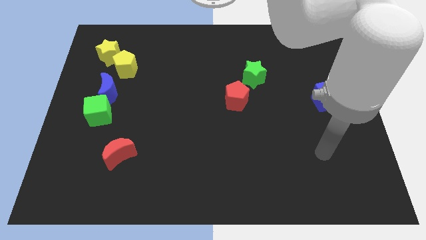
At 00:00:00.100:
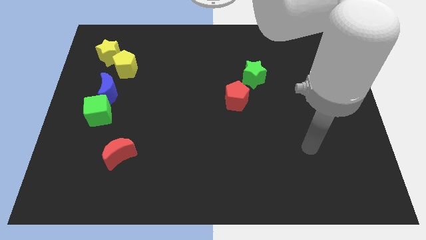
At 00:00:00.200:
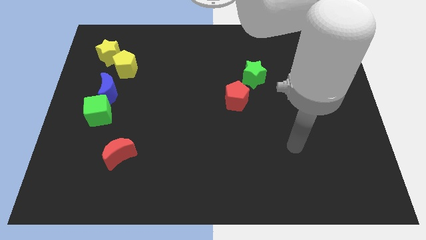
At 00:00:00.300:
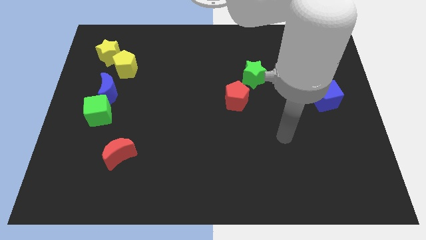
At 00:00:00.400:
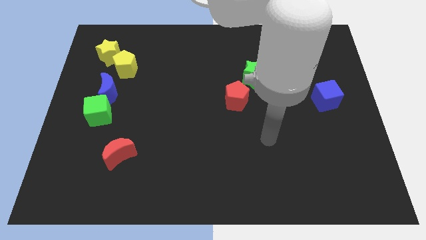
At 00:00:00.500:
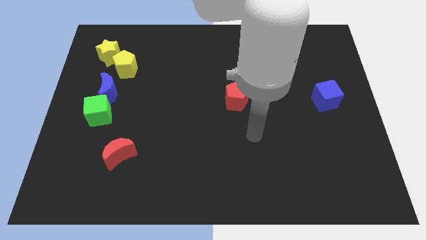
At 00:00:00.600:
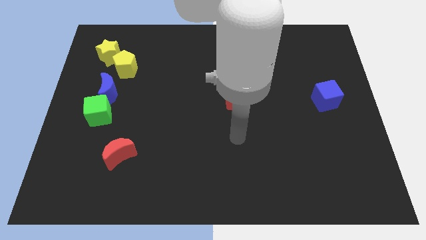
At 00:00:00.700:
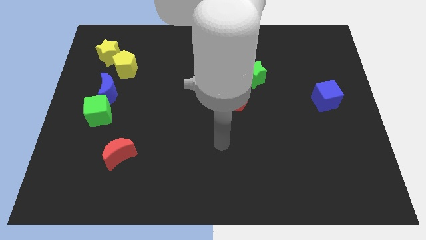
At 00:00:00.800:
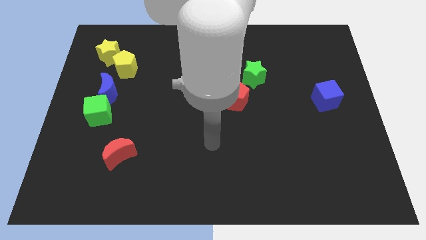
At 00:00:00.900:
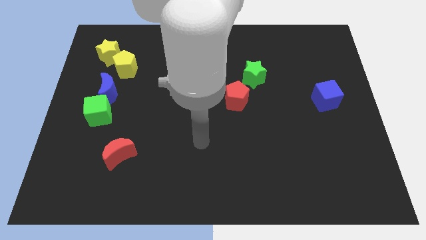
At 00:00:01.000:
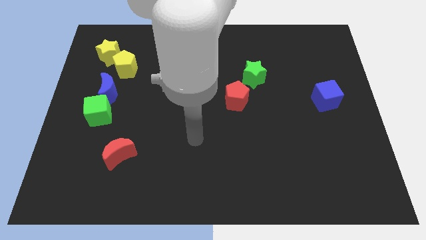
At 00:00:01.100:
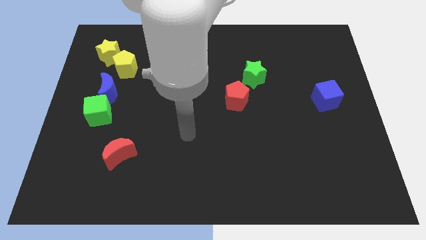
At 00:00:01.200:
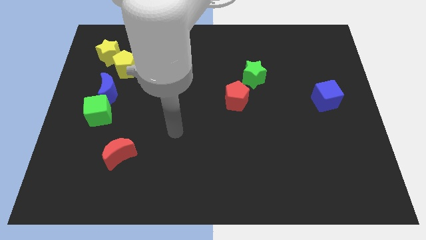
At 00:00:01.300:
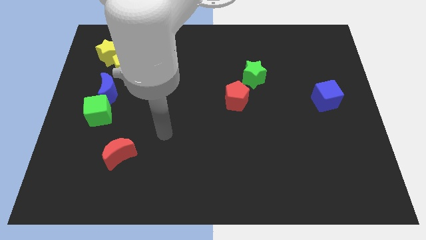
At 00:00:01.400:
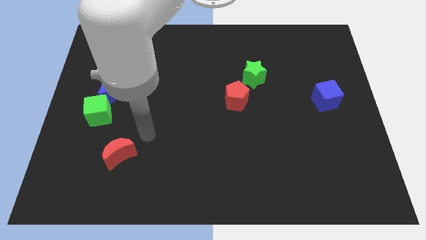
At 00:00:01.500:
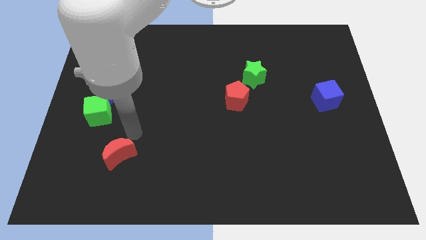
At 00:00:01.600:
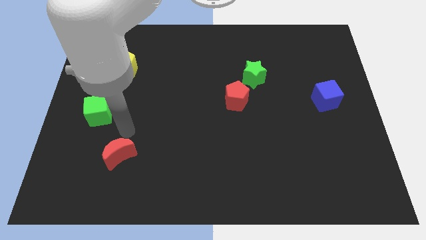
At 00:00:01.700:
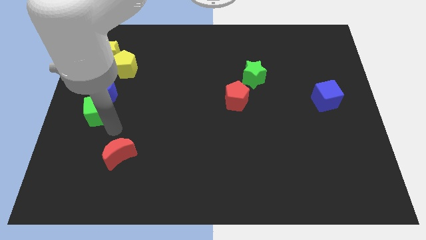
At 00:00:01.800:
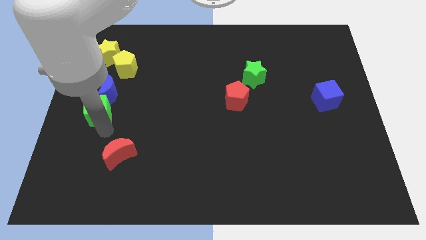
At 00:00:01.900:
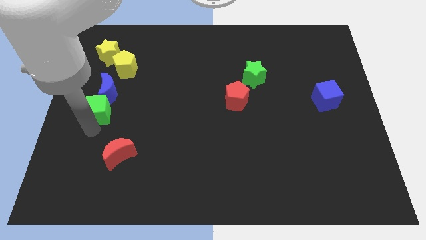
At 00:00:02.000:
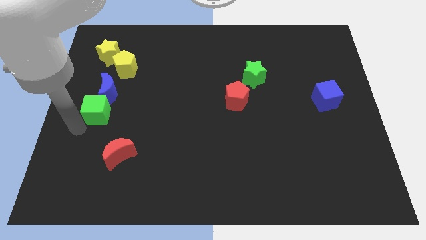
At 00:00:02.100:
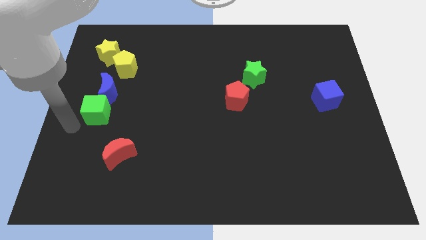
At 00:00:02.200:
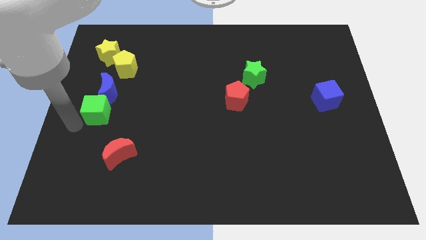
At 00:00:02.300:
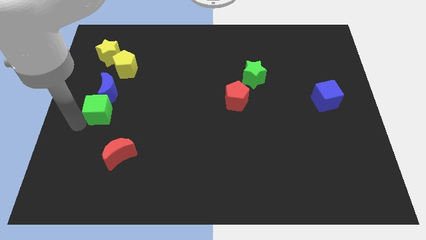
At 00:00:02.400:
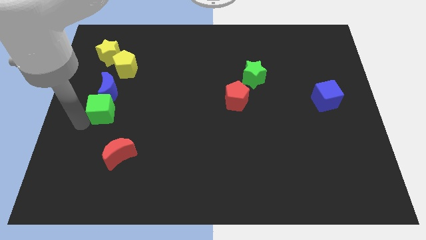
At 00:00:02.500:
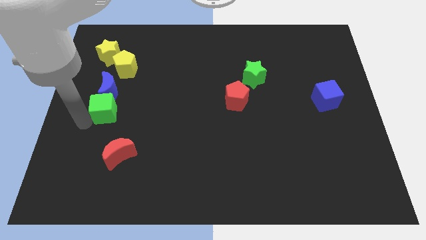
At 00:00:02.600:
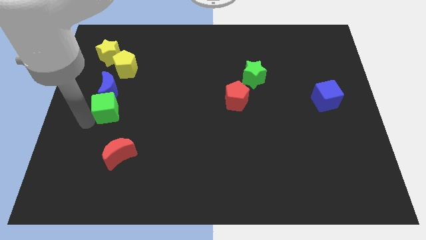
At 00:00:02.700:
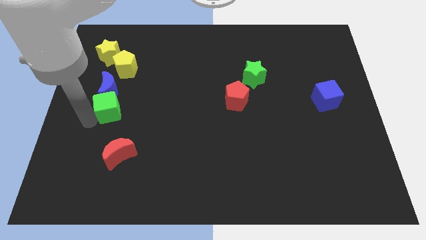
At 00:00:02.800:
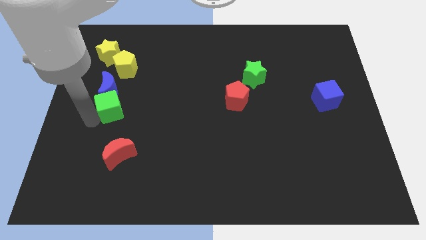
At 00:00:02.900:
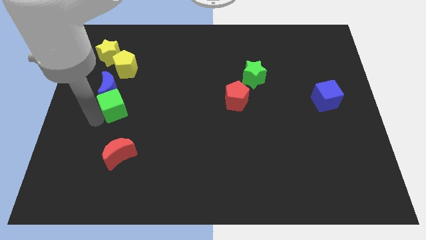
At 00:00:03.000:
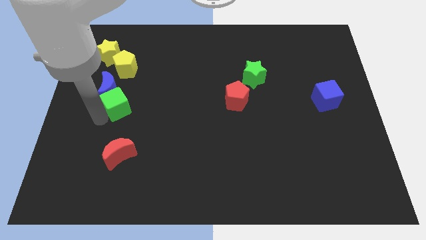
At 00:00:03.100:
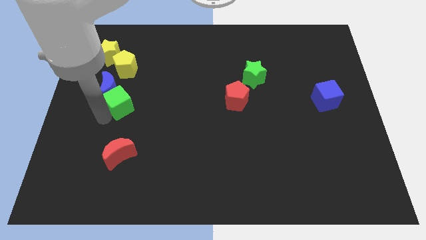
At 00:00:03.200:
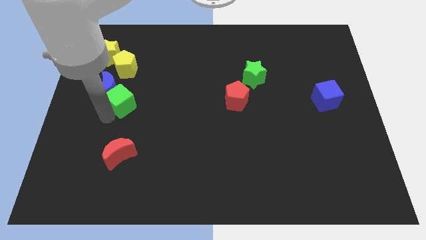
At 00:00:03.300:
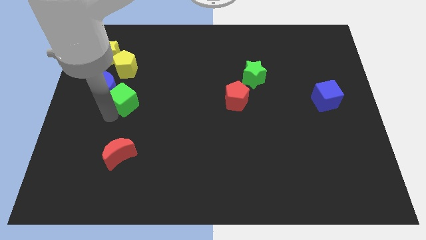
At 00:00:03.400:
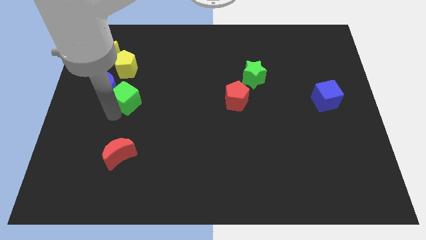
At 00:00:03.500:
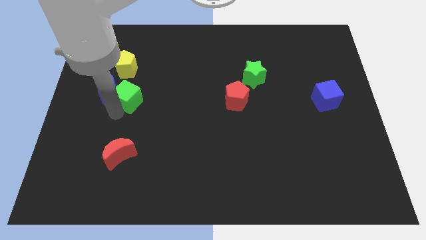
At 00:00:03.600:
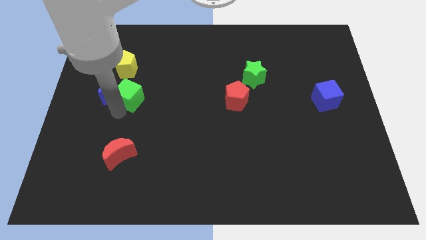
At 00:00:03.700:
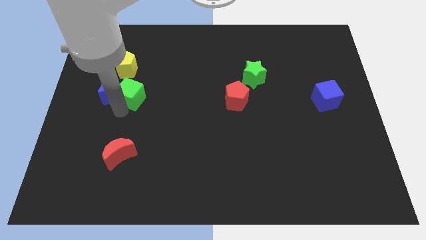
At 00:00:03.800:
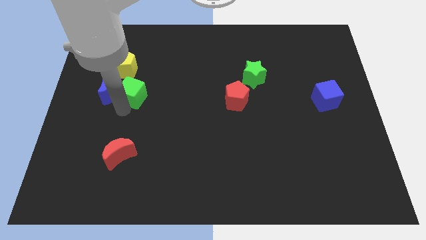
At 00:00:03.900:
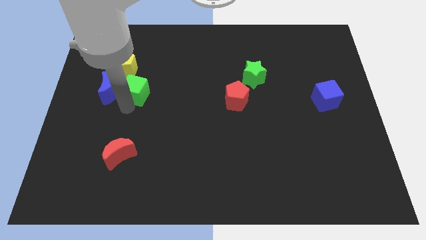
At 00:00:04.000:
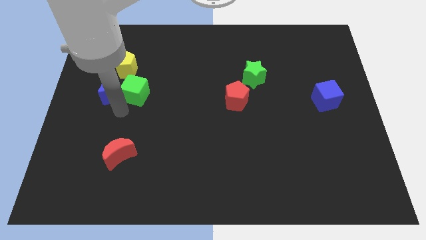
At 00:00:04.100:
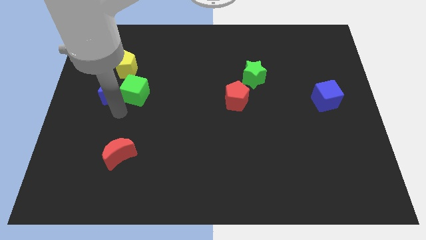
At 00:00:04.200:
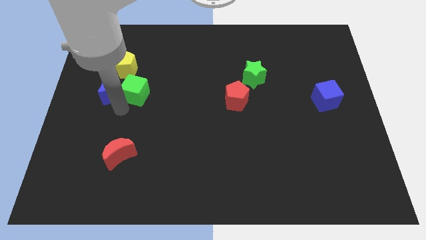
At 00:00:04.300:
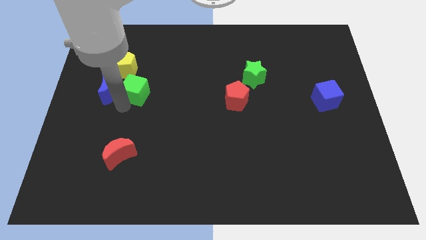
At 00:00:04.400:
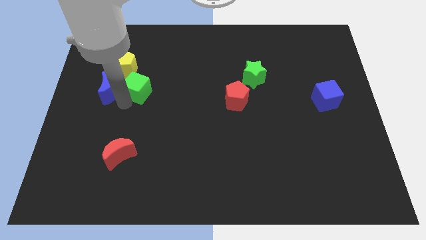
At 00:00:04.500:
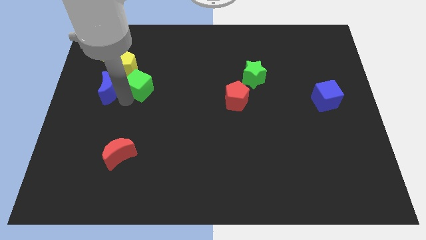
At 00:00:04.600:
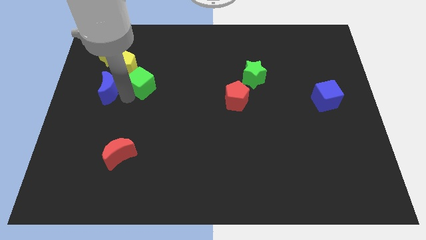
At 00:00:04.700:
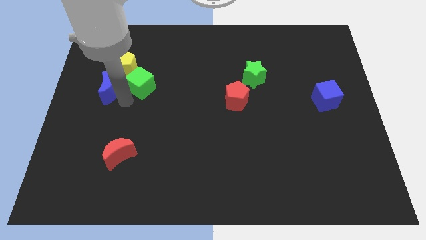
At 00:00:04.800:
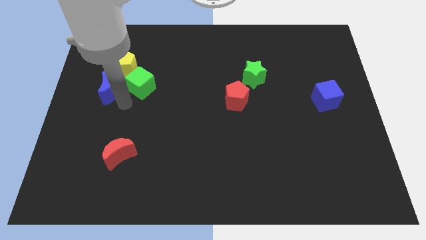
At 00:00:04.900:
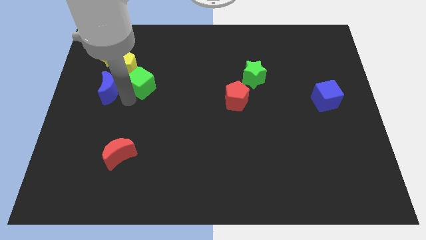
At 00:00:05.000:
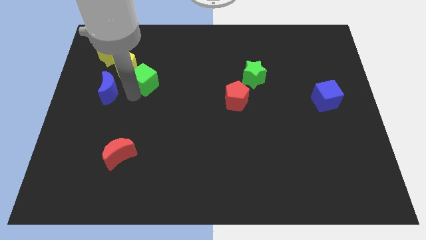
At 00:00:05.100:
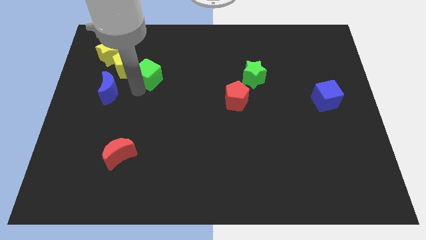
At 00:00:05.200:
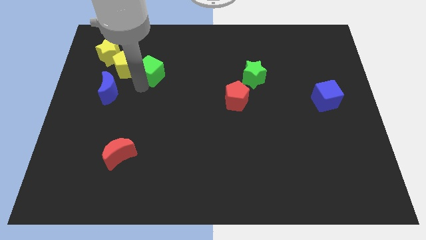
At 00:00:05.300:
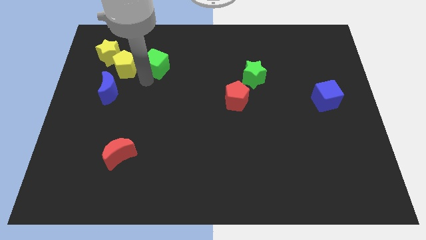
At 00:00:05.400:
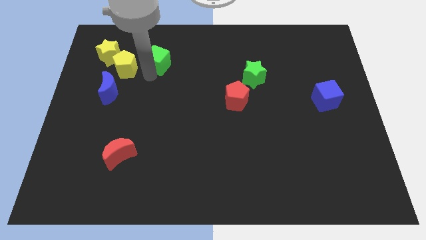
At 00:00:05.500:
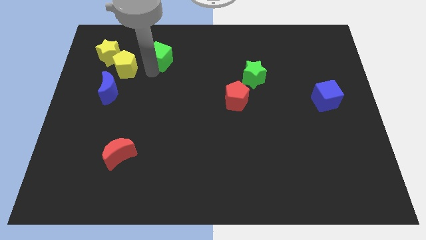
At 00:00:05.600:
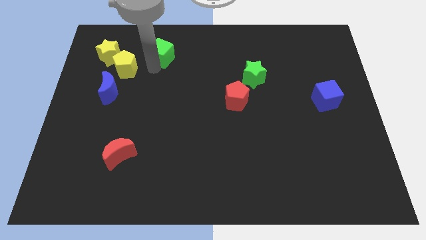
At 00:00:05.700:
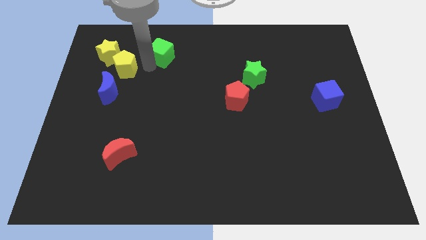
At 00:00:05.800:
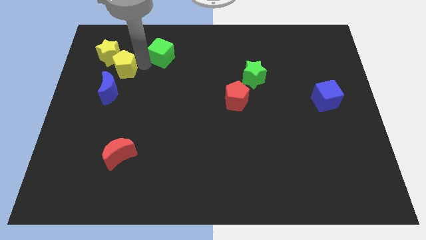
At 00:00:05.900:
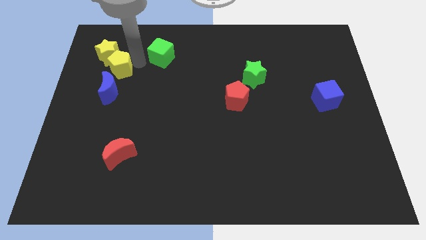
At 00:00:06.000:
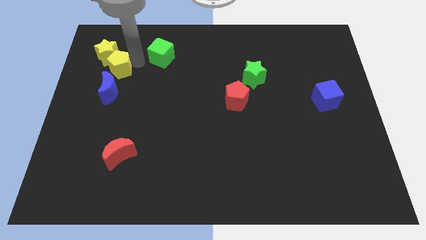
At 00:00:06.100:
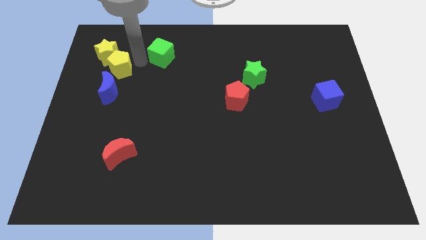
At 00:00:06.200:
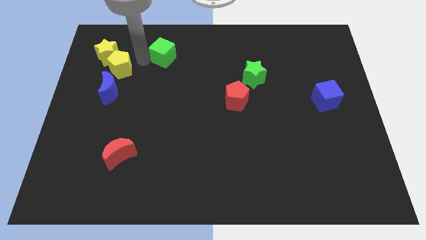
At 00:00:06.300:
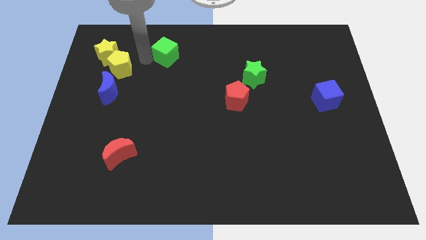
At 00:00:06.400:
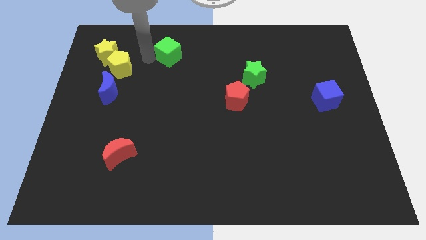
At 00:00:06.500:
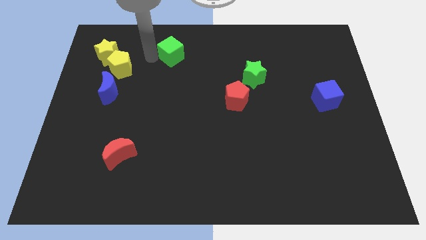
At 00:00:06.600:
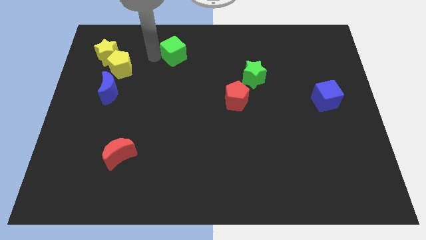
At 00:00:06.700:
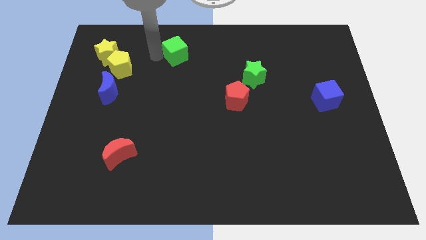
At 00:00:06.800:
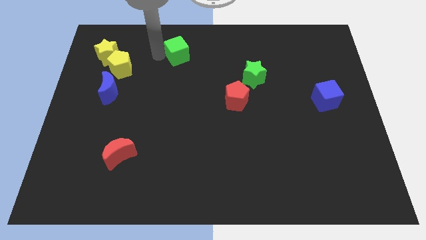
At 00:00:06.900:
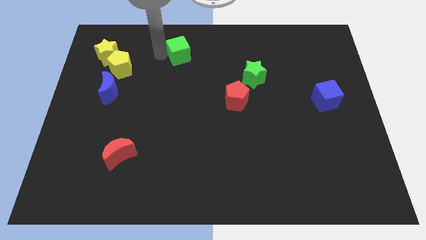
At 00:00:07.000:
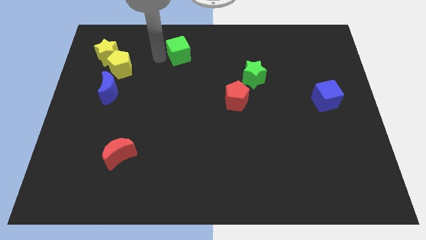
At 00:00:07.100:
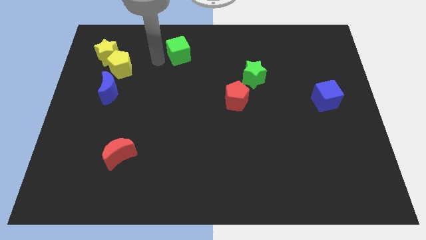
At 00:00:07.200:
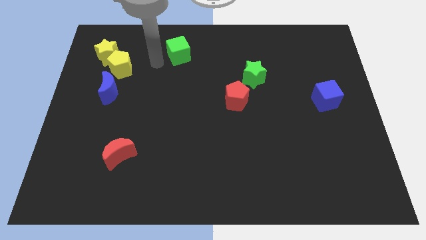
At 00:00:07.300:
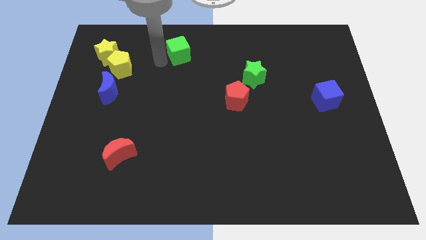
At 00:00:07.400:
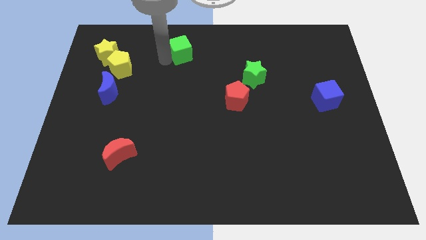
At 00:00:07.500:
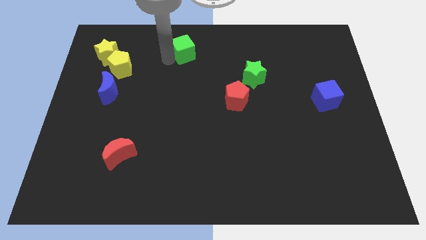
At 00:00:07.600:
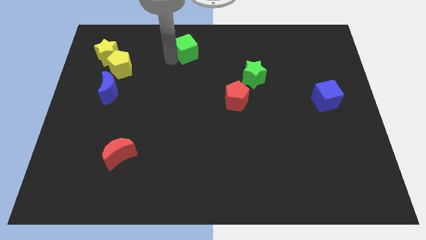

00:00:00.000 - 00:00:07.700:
slide the green cube to the top
